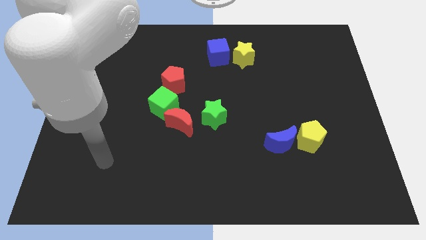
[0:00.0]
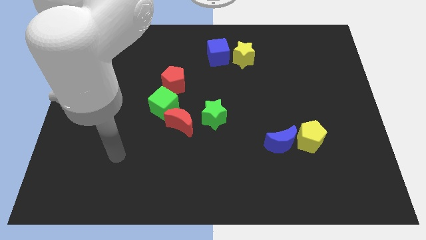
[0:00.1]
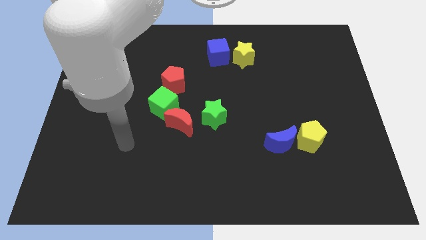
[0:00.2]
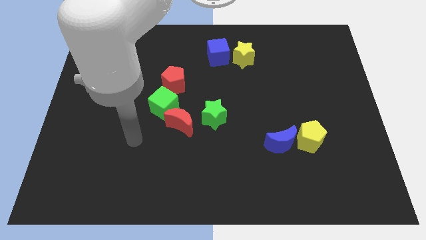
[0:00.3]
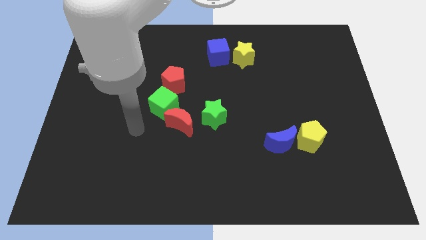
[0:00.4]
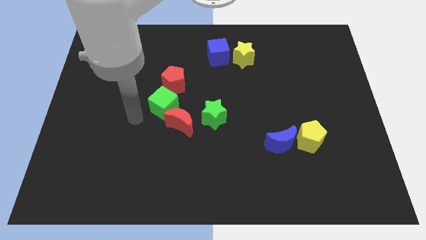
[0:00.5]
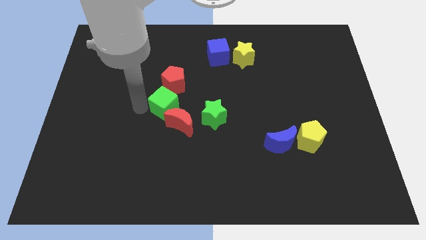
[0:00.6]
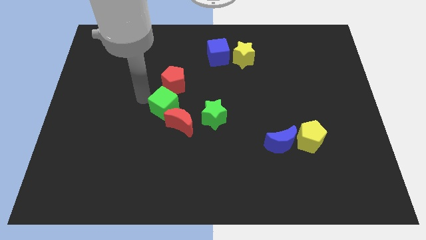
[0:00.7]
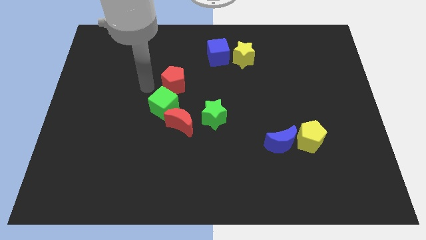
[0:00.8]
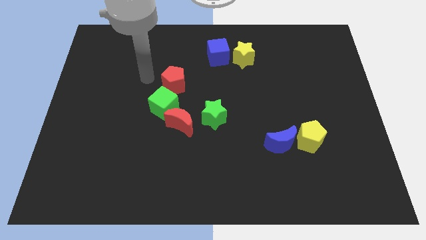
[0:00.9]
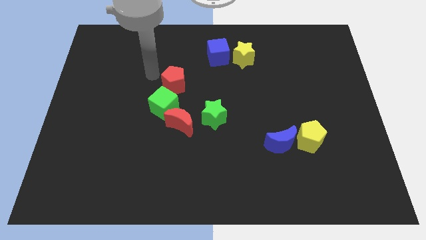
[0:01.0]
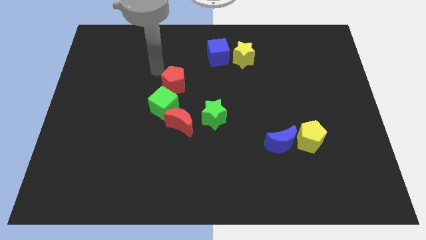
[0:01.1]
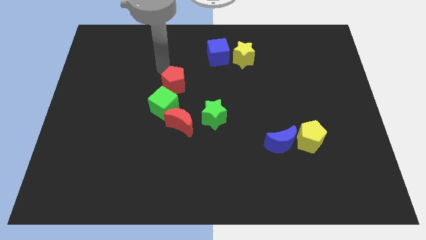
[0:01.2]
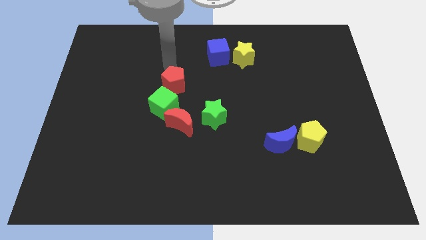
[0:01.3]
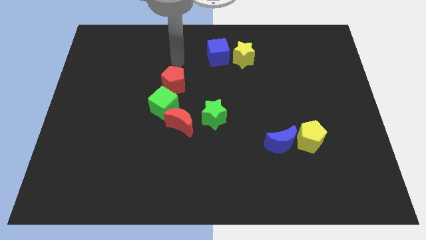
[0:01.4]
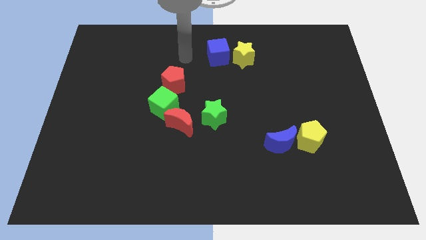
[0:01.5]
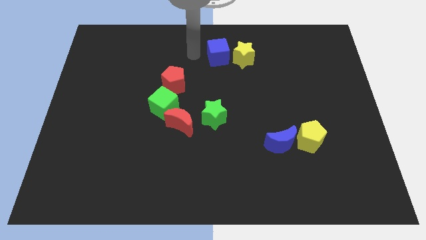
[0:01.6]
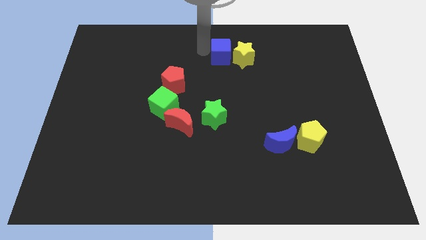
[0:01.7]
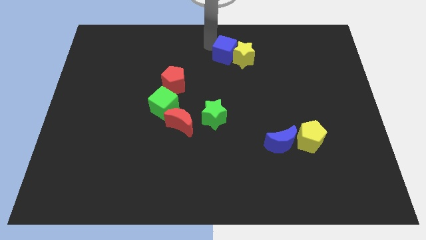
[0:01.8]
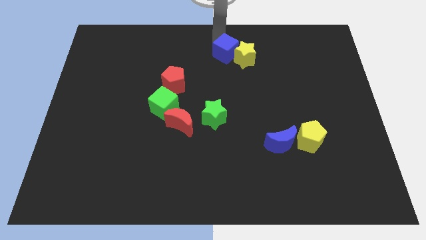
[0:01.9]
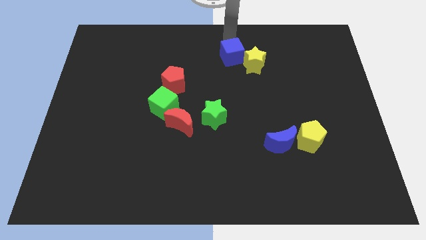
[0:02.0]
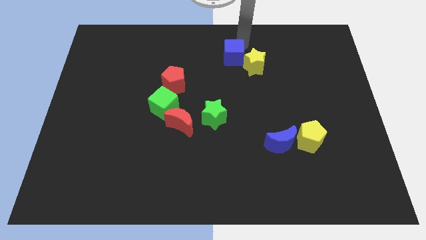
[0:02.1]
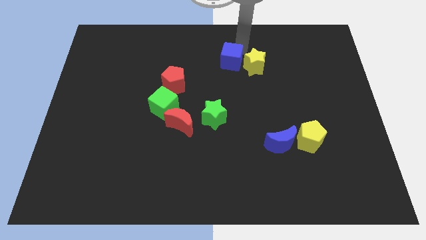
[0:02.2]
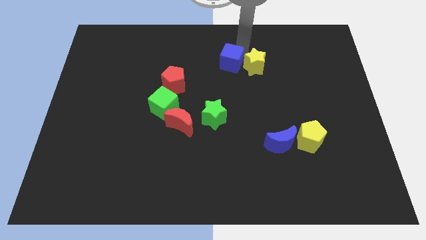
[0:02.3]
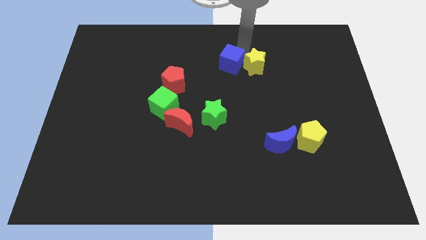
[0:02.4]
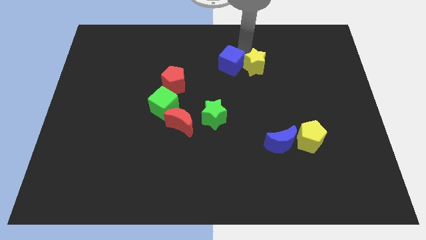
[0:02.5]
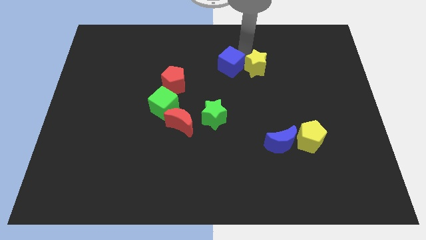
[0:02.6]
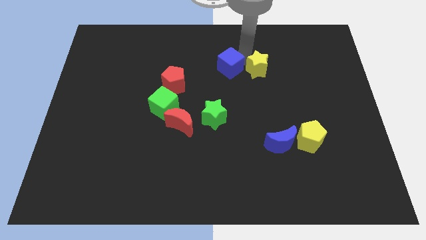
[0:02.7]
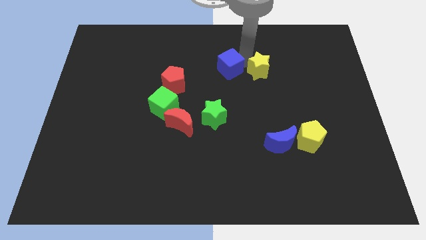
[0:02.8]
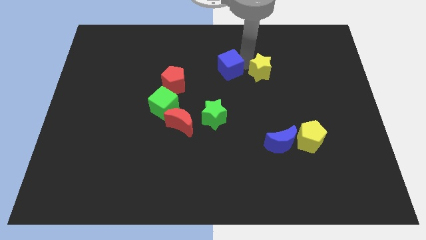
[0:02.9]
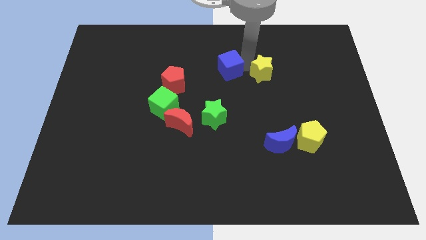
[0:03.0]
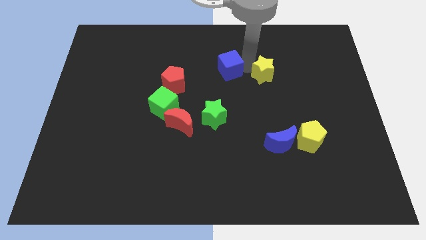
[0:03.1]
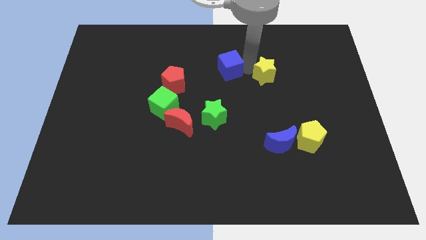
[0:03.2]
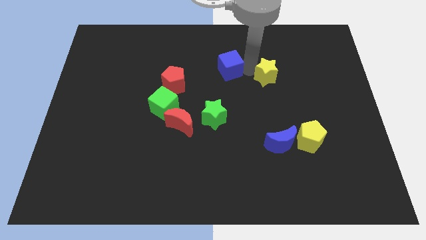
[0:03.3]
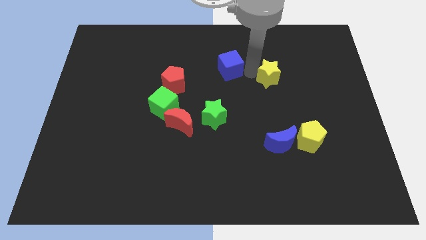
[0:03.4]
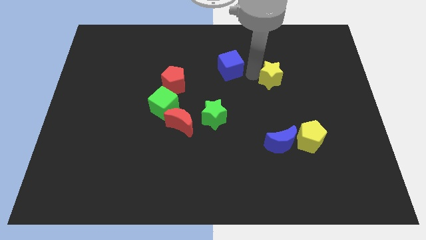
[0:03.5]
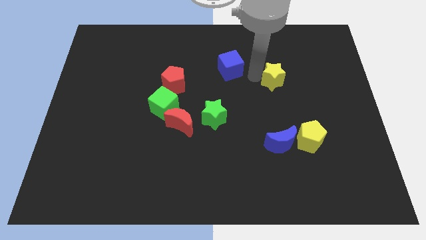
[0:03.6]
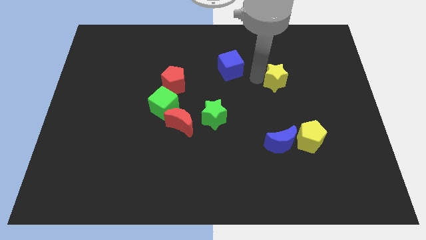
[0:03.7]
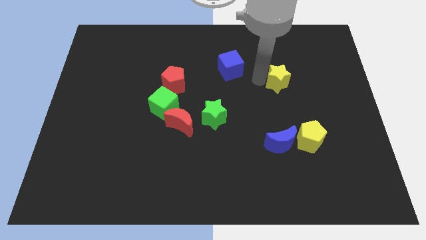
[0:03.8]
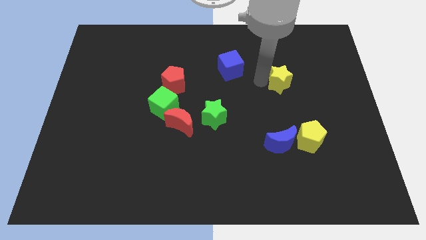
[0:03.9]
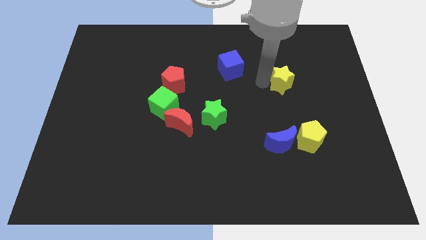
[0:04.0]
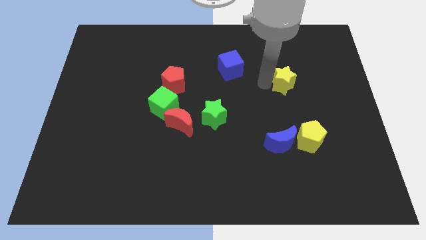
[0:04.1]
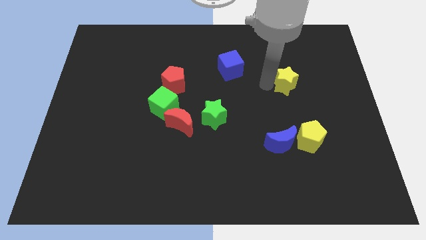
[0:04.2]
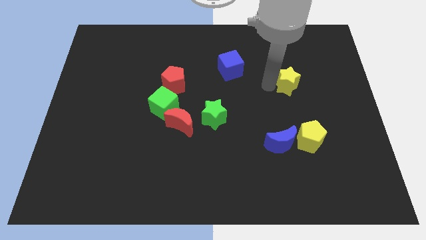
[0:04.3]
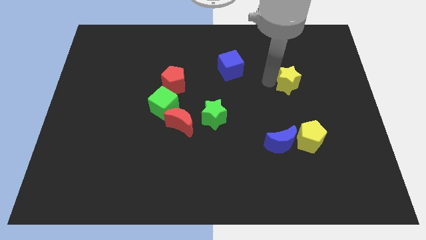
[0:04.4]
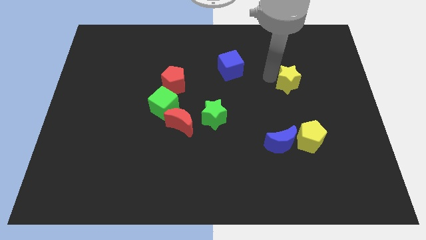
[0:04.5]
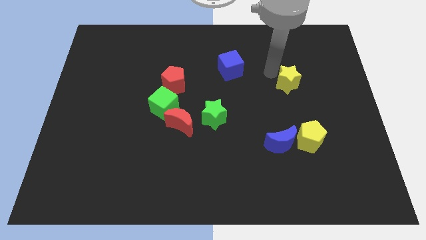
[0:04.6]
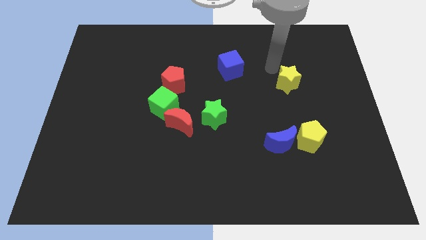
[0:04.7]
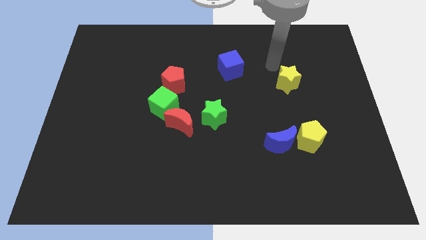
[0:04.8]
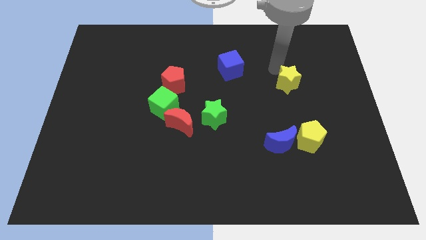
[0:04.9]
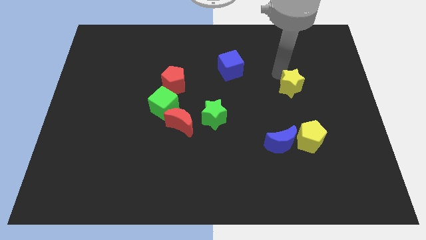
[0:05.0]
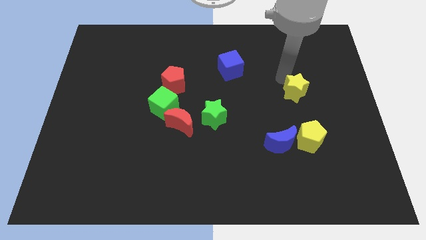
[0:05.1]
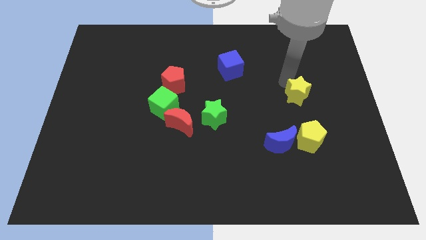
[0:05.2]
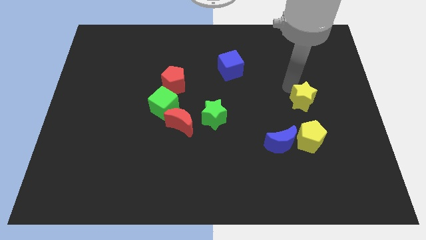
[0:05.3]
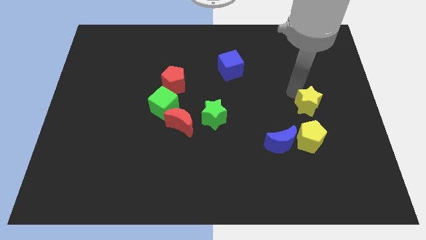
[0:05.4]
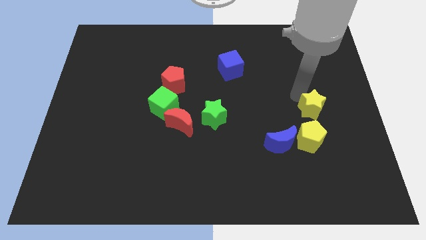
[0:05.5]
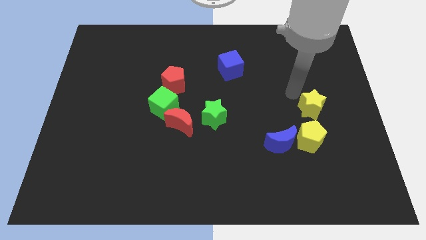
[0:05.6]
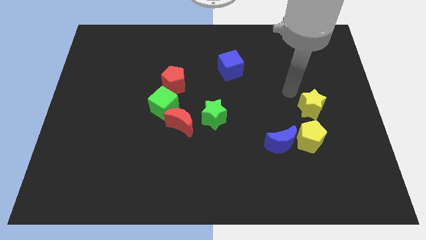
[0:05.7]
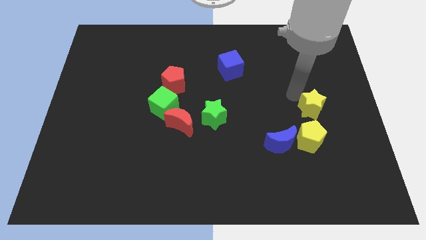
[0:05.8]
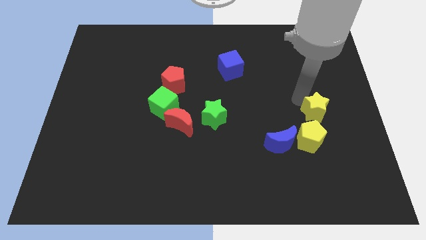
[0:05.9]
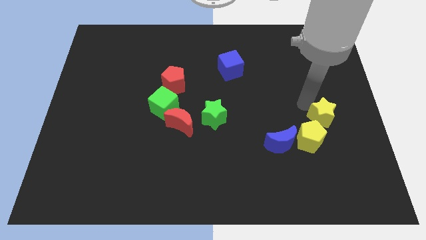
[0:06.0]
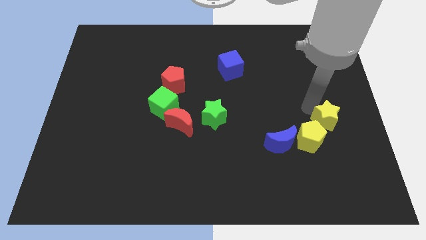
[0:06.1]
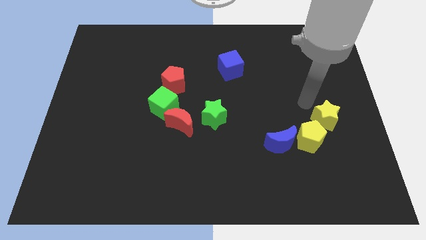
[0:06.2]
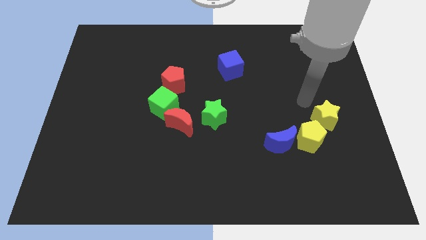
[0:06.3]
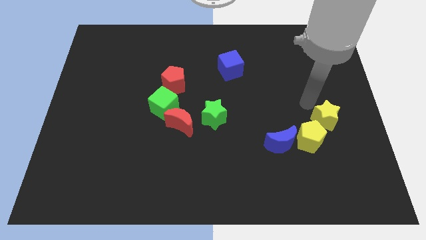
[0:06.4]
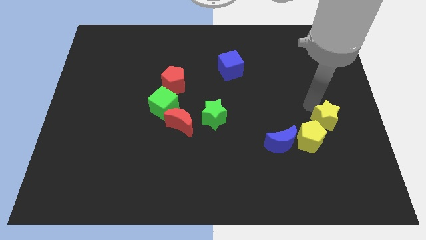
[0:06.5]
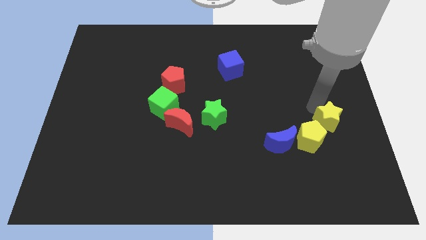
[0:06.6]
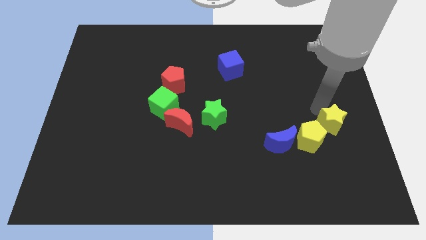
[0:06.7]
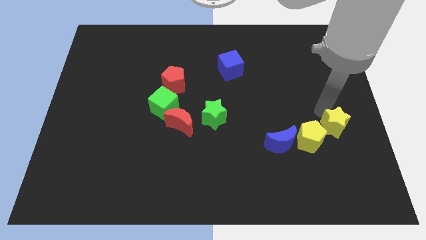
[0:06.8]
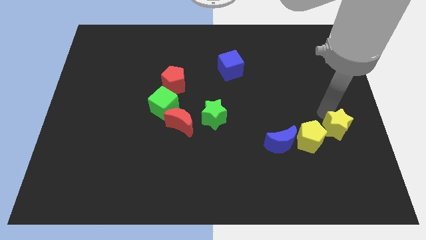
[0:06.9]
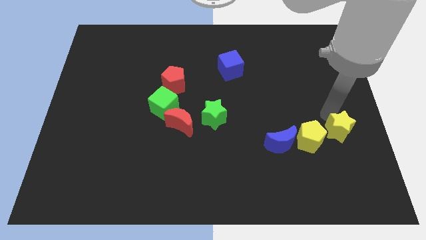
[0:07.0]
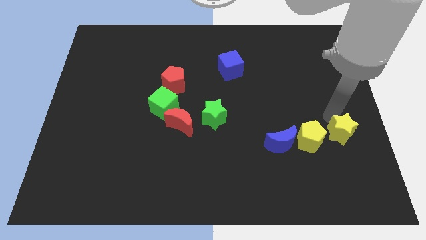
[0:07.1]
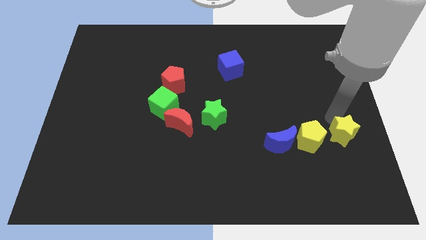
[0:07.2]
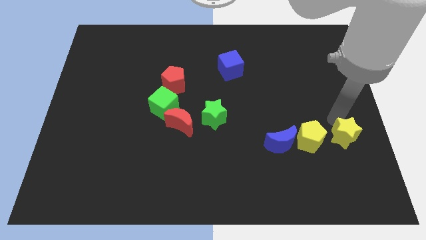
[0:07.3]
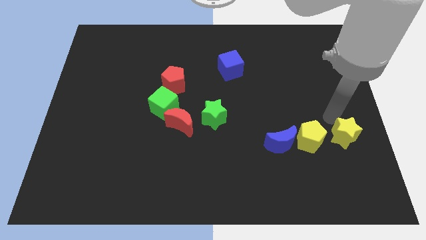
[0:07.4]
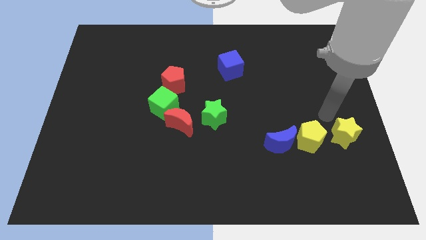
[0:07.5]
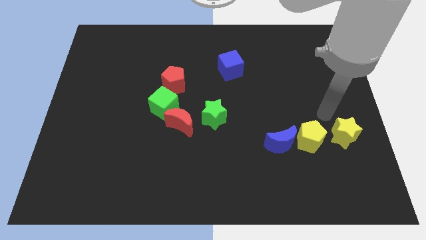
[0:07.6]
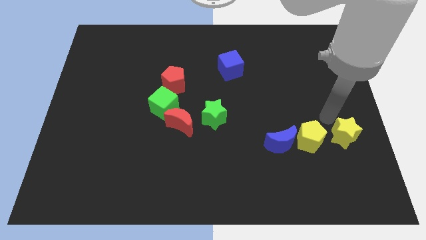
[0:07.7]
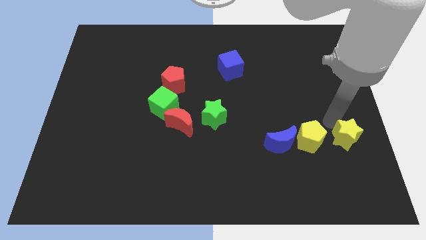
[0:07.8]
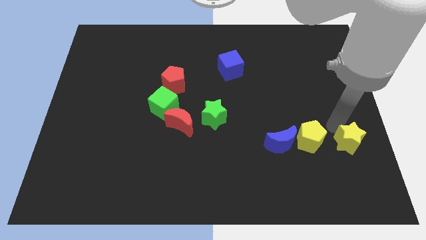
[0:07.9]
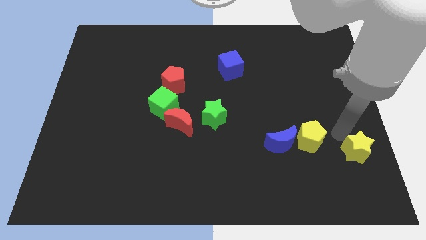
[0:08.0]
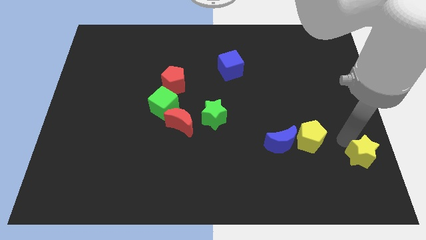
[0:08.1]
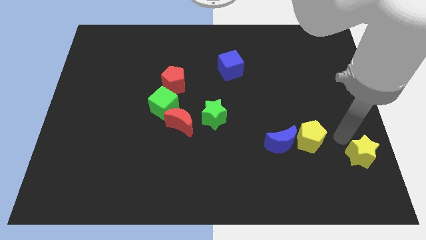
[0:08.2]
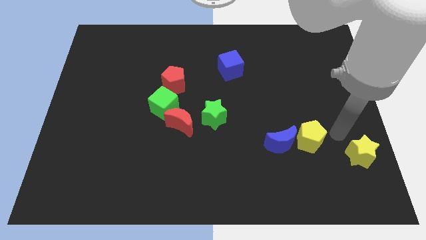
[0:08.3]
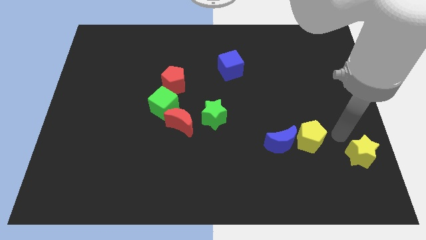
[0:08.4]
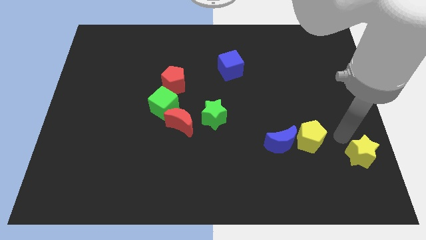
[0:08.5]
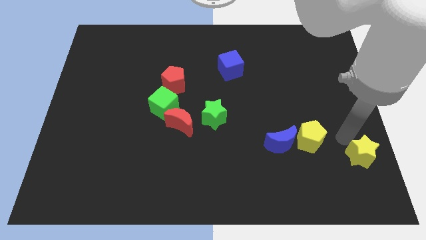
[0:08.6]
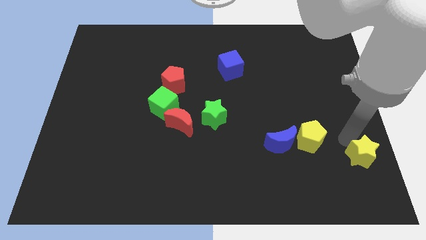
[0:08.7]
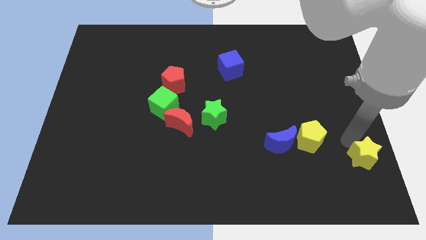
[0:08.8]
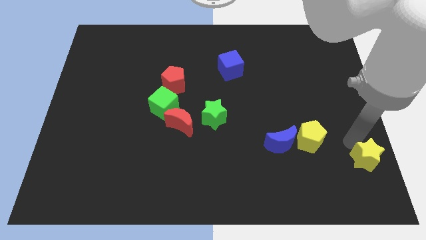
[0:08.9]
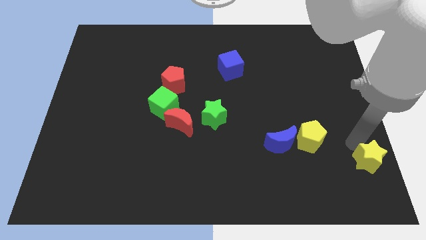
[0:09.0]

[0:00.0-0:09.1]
move the yellow star to the bottom right corner
